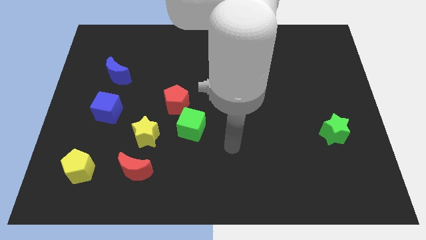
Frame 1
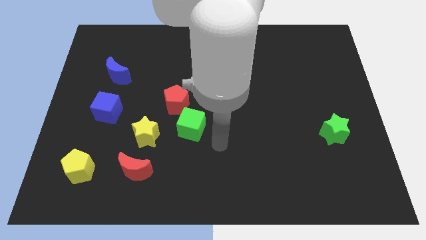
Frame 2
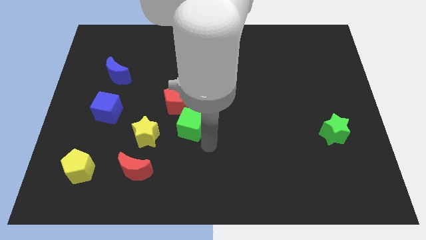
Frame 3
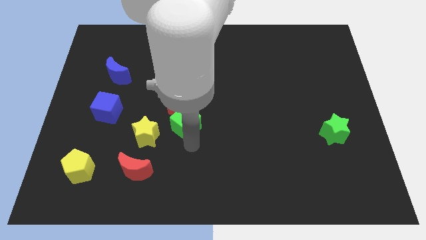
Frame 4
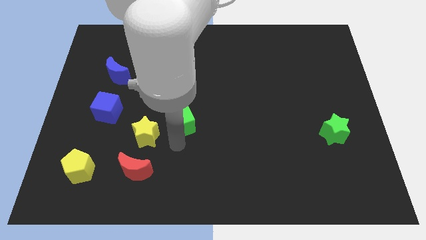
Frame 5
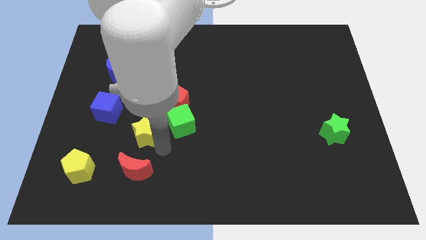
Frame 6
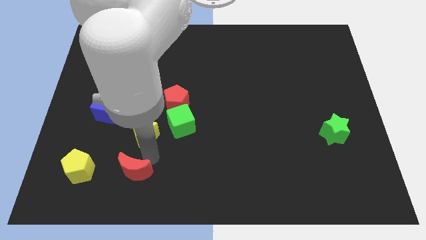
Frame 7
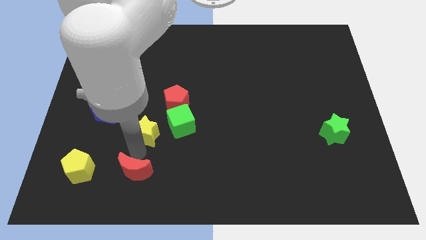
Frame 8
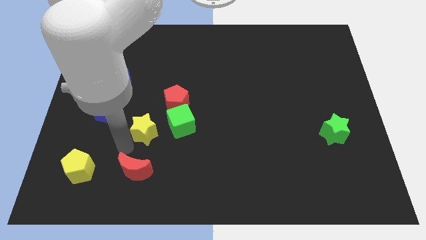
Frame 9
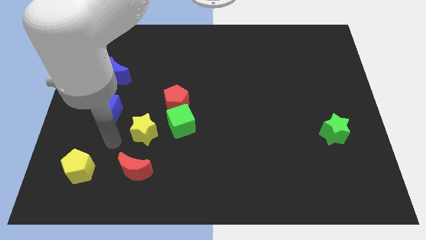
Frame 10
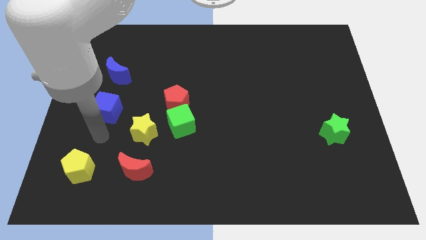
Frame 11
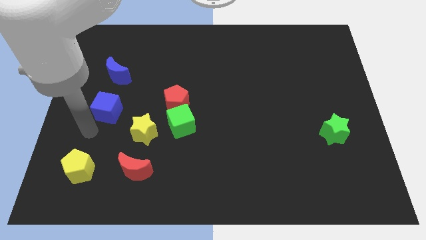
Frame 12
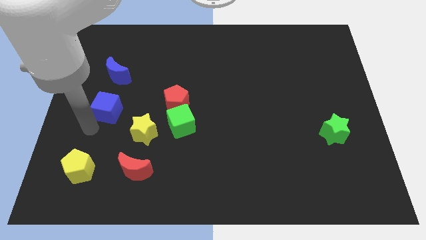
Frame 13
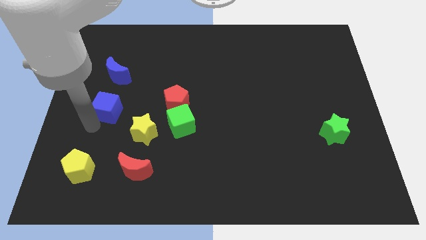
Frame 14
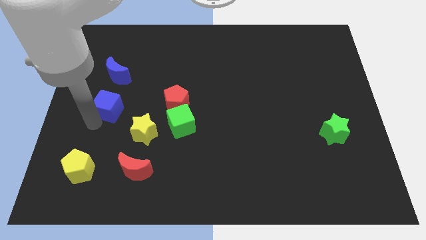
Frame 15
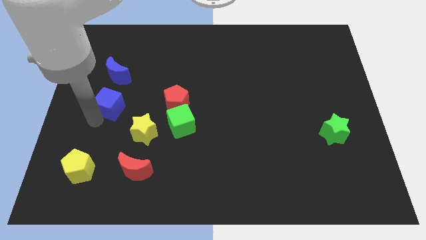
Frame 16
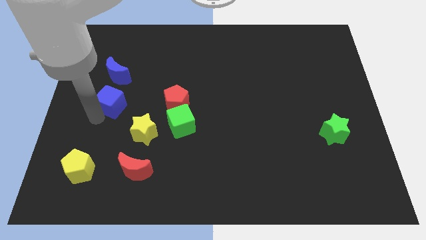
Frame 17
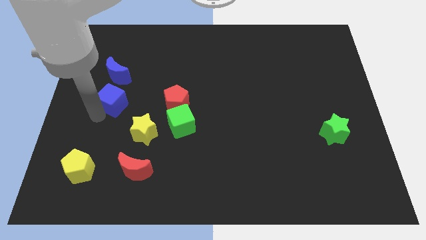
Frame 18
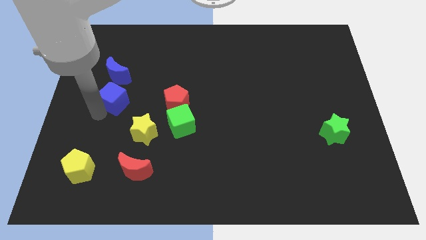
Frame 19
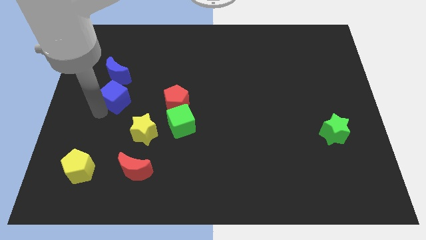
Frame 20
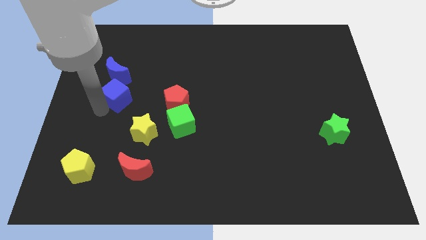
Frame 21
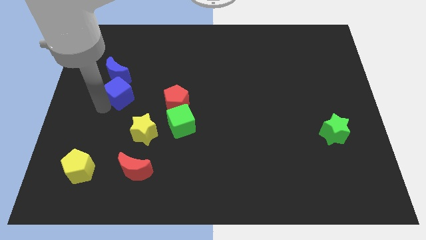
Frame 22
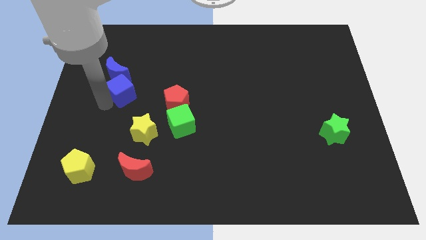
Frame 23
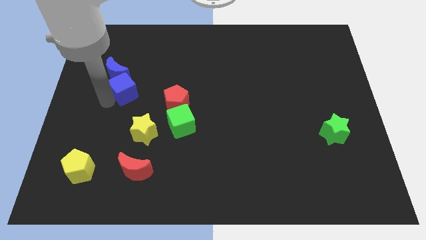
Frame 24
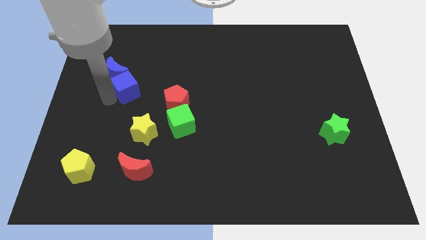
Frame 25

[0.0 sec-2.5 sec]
move the blue cube a little bit upwards and to the right diagonally

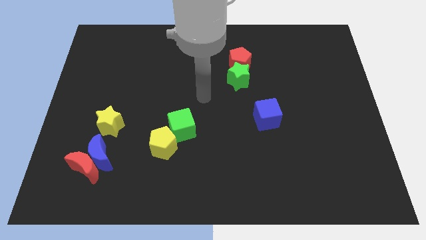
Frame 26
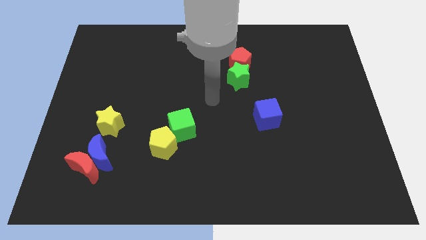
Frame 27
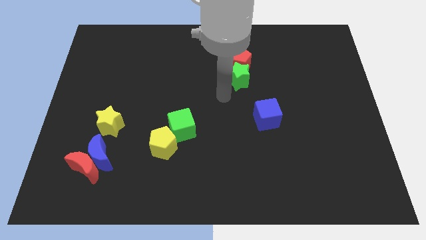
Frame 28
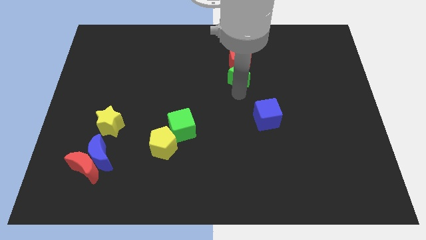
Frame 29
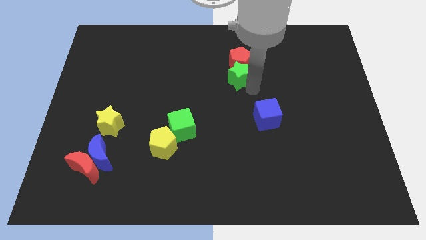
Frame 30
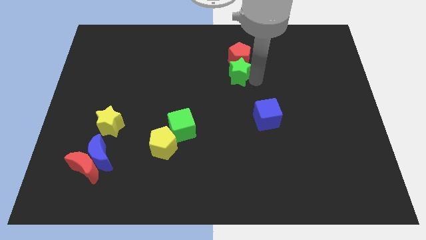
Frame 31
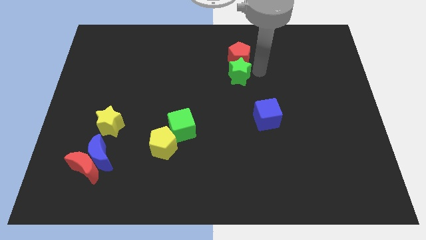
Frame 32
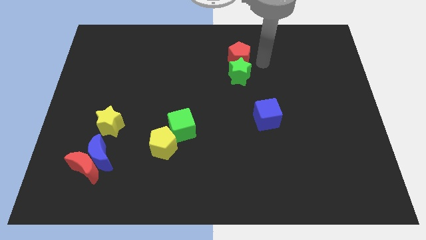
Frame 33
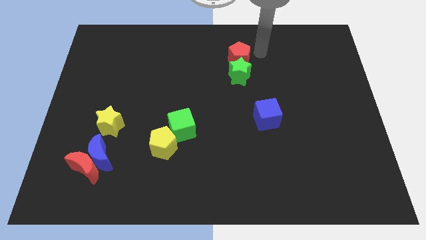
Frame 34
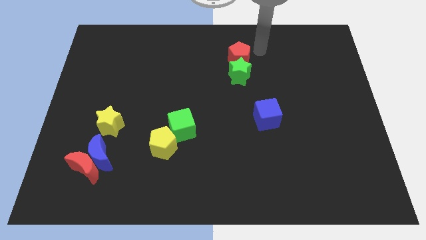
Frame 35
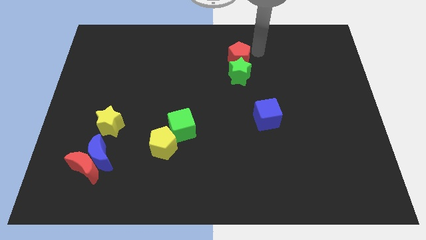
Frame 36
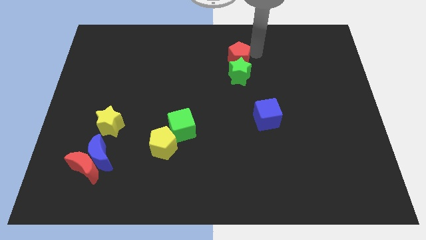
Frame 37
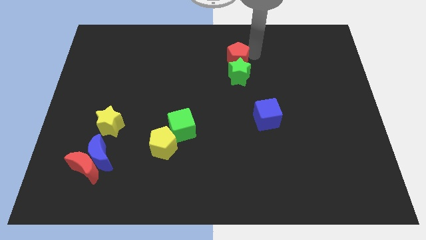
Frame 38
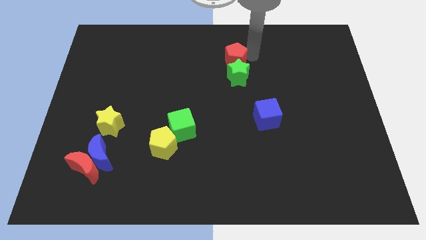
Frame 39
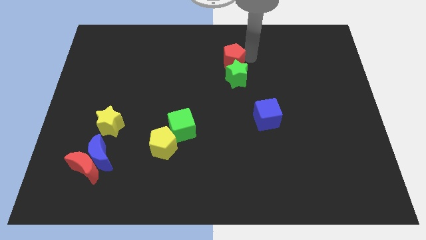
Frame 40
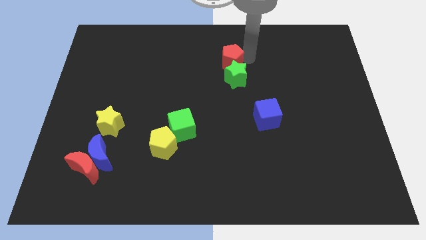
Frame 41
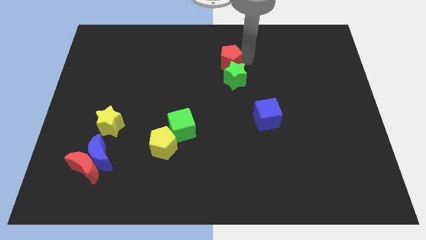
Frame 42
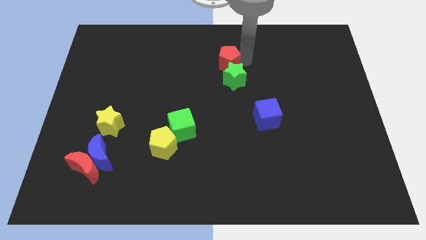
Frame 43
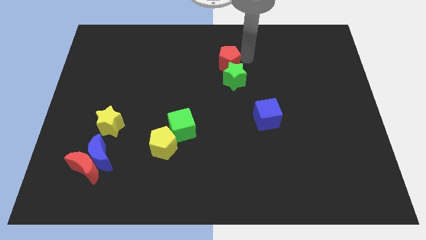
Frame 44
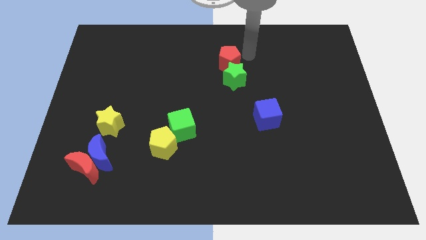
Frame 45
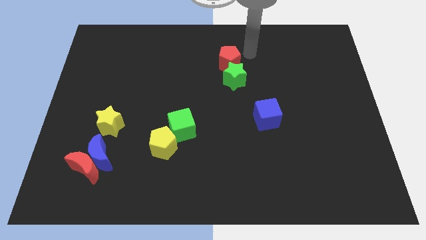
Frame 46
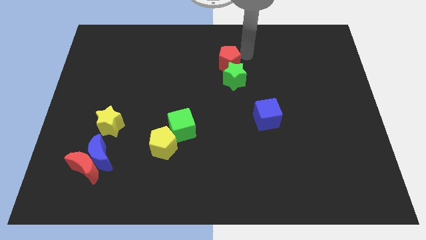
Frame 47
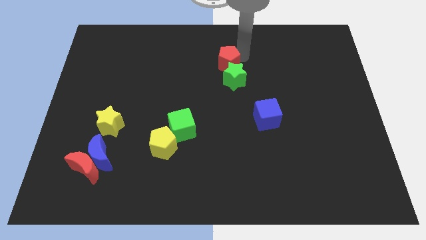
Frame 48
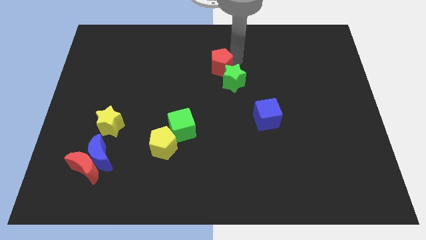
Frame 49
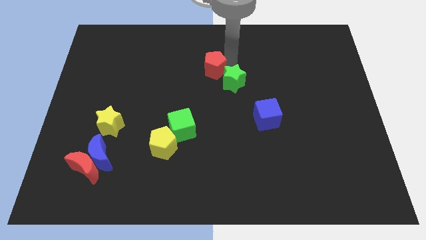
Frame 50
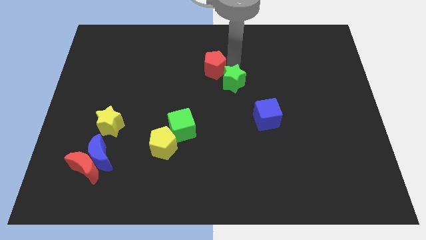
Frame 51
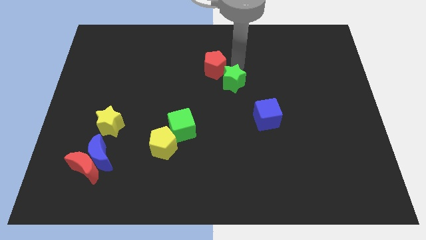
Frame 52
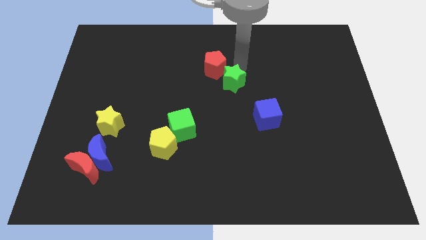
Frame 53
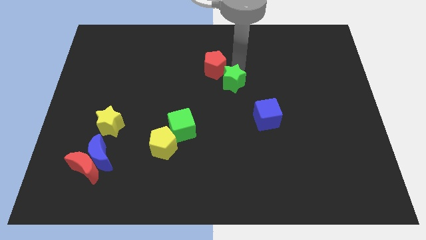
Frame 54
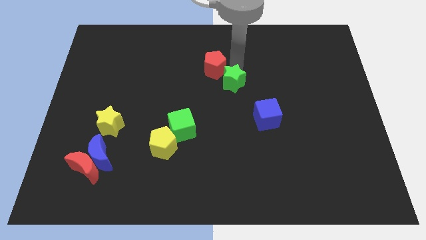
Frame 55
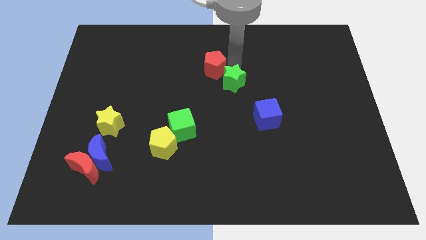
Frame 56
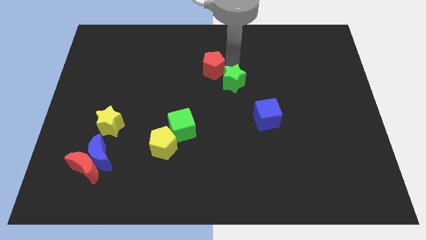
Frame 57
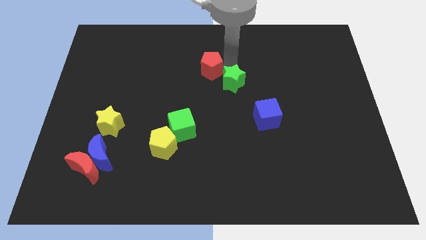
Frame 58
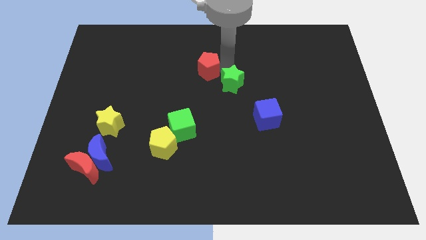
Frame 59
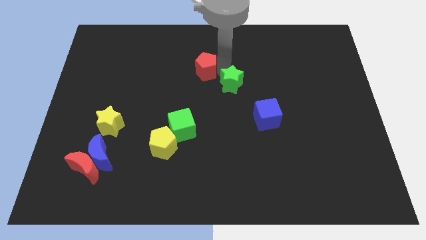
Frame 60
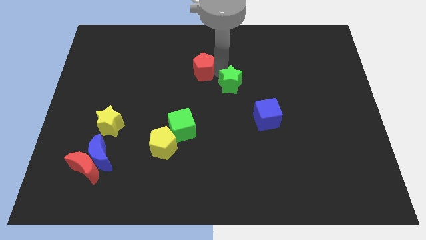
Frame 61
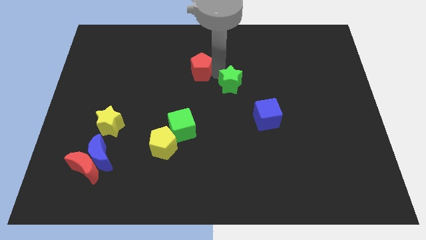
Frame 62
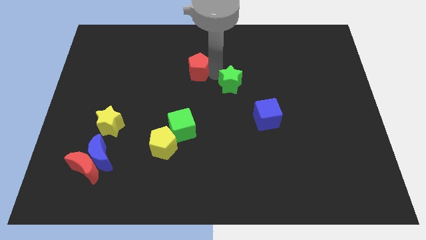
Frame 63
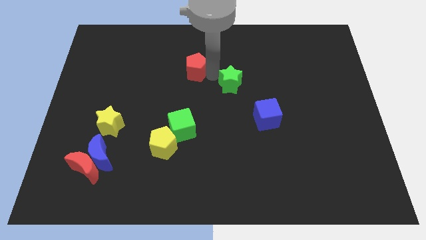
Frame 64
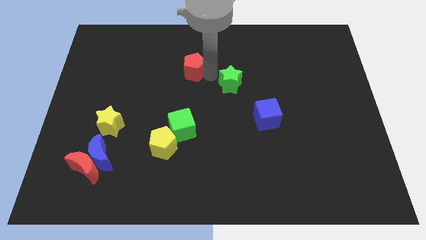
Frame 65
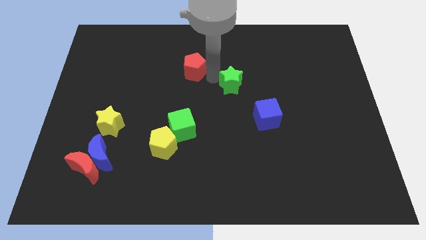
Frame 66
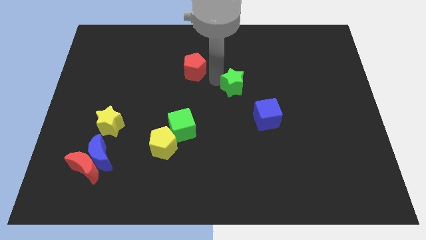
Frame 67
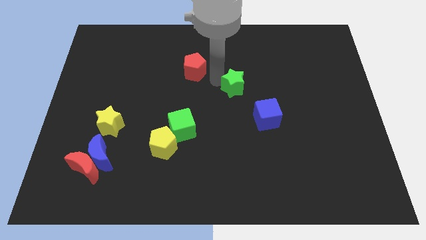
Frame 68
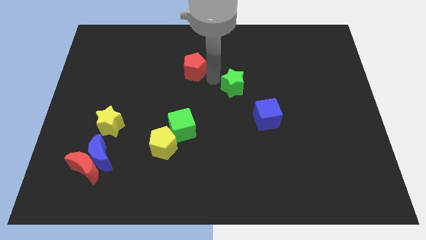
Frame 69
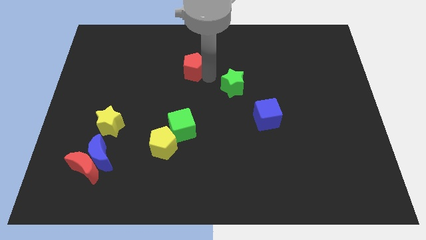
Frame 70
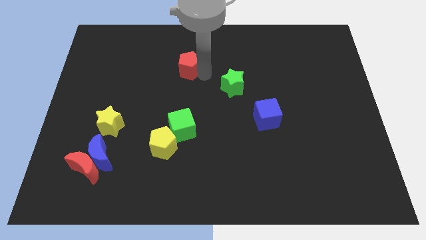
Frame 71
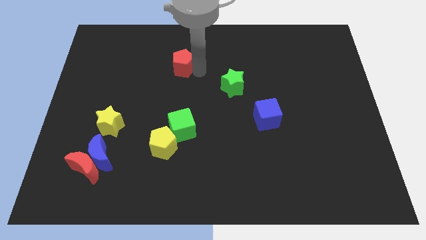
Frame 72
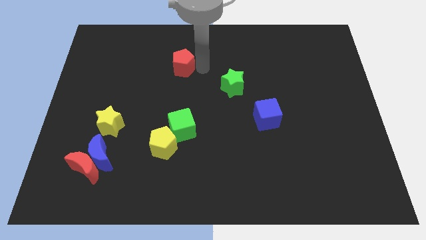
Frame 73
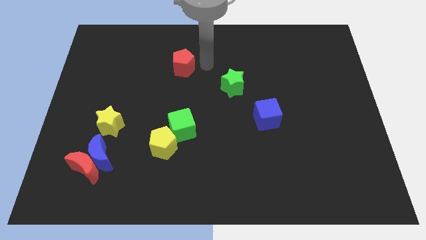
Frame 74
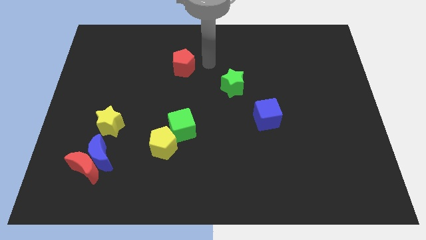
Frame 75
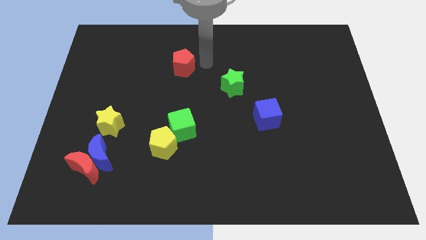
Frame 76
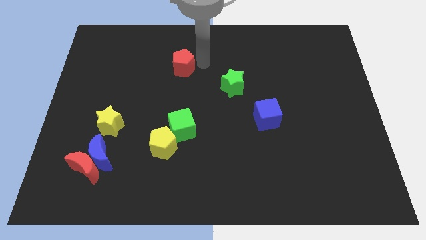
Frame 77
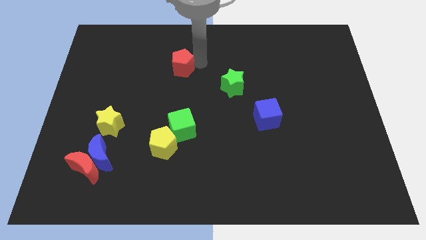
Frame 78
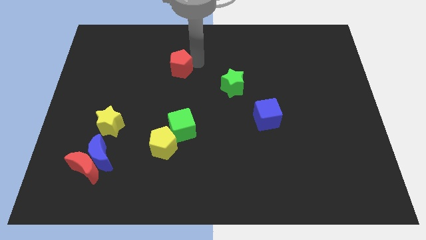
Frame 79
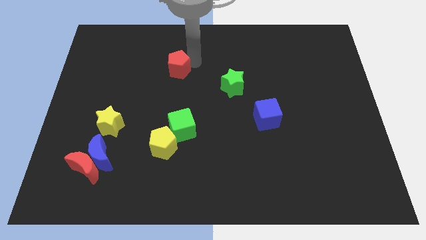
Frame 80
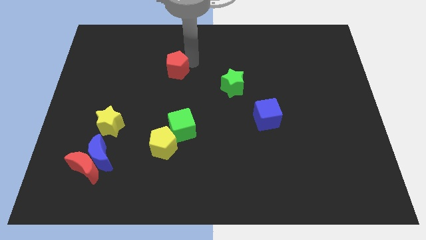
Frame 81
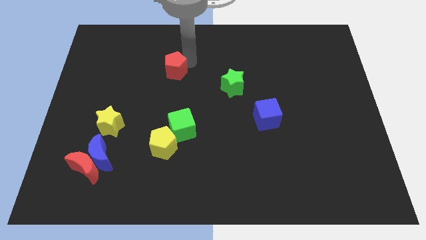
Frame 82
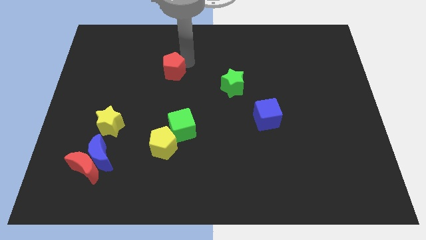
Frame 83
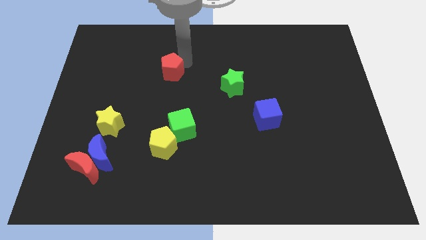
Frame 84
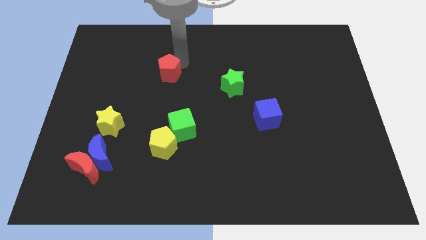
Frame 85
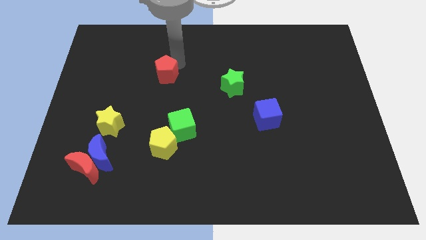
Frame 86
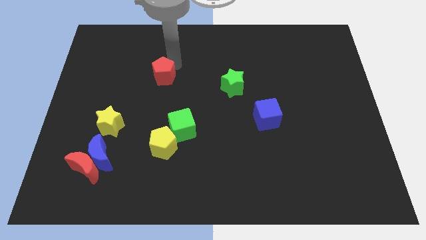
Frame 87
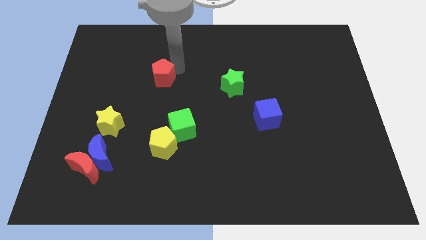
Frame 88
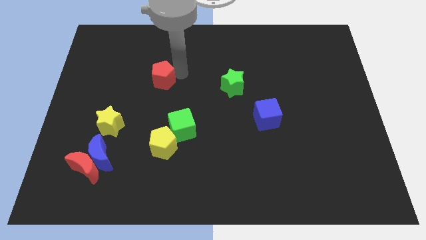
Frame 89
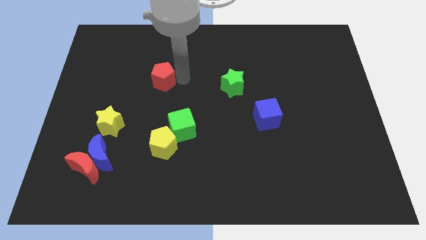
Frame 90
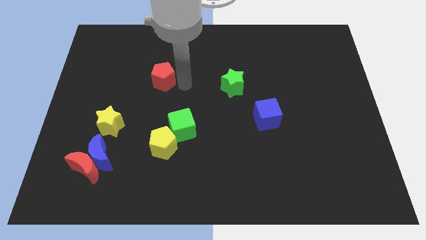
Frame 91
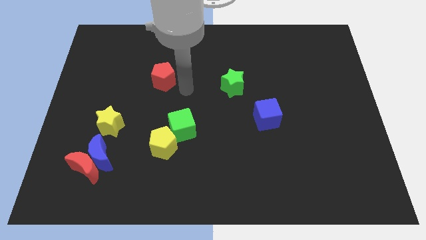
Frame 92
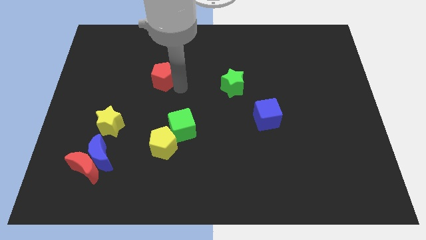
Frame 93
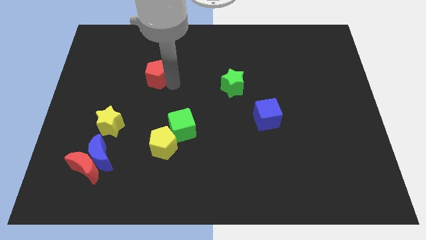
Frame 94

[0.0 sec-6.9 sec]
move the red pentagon to the left
